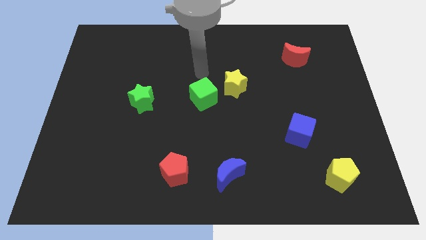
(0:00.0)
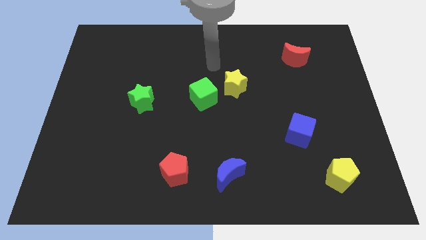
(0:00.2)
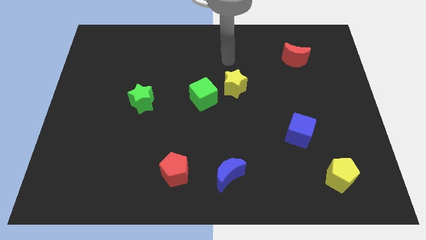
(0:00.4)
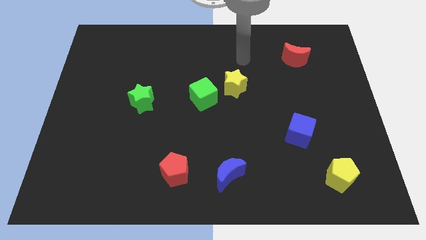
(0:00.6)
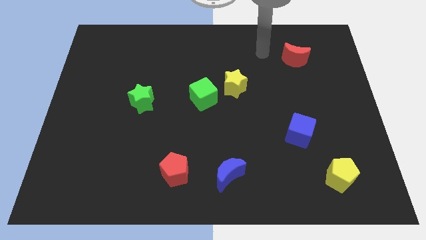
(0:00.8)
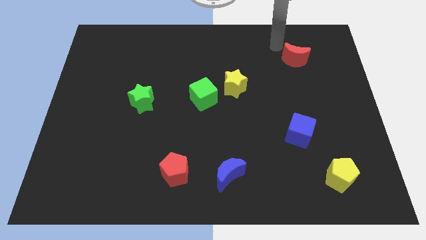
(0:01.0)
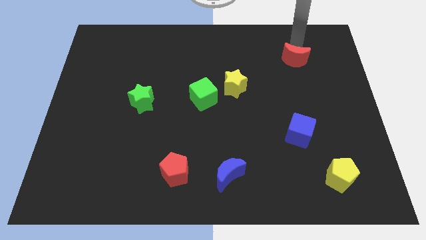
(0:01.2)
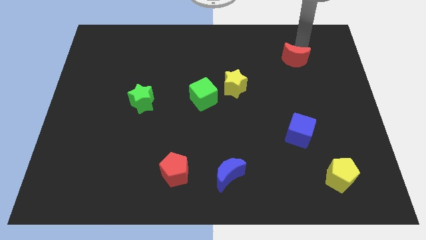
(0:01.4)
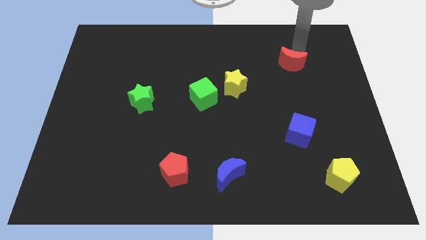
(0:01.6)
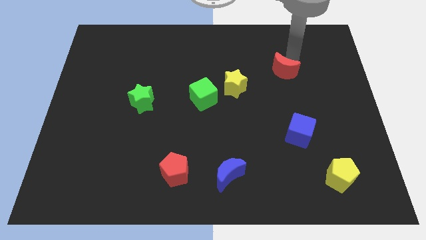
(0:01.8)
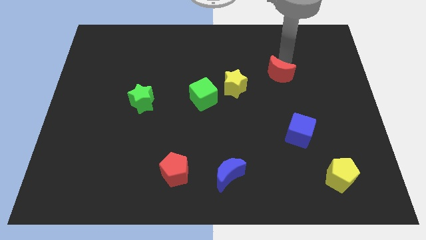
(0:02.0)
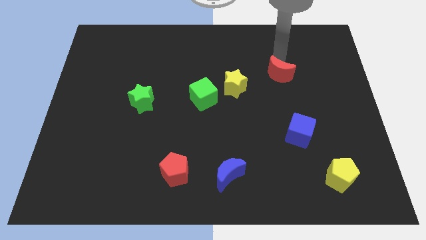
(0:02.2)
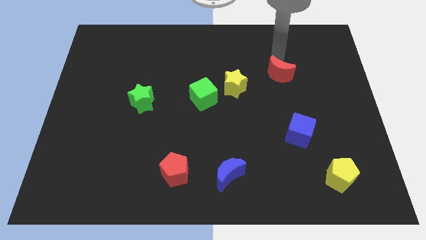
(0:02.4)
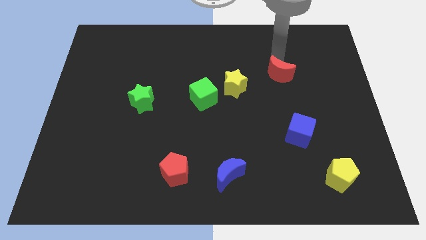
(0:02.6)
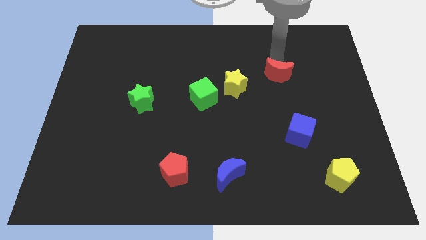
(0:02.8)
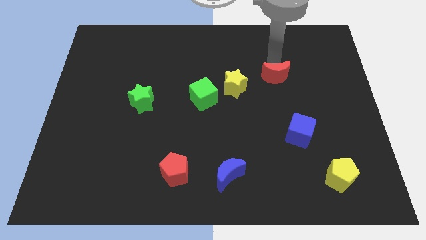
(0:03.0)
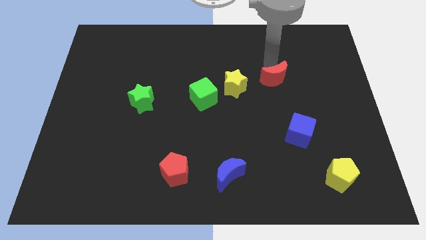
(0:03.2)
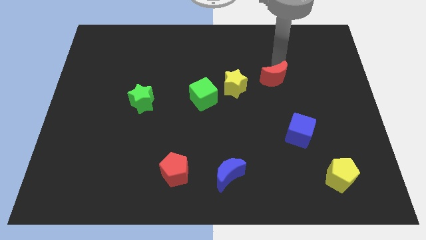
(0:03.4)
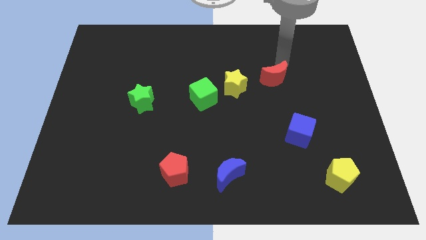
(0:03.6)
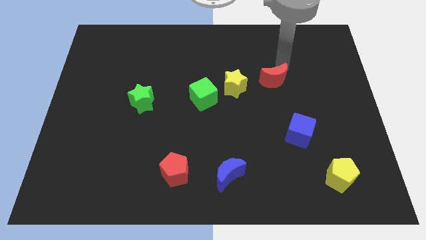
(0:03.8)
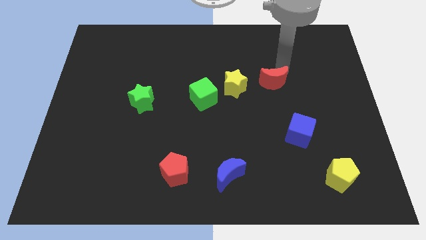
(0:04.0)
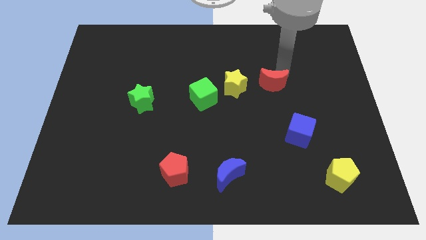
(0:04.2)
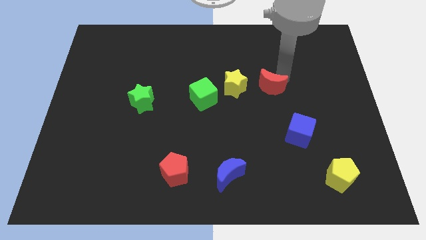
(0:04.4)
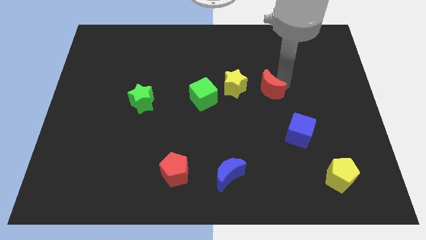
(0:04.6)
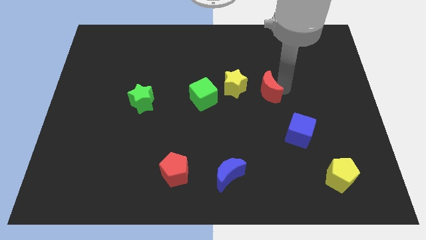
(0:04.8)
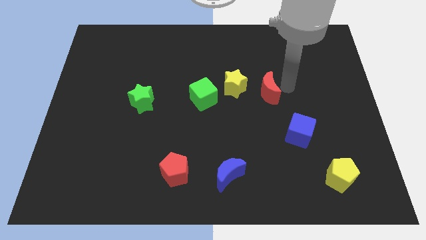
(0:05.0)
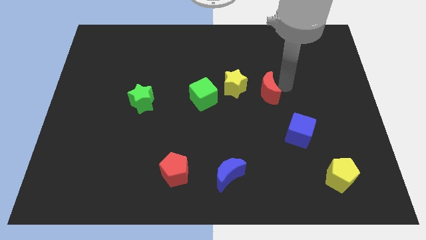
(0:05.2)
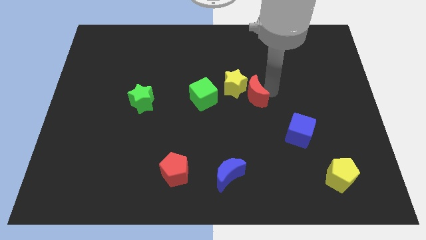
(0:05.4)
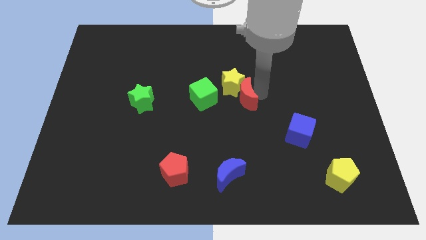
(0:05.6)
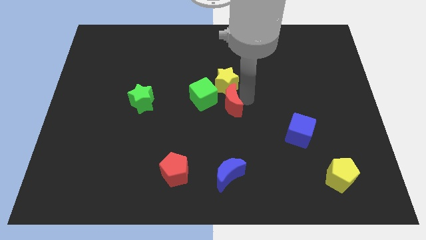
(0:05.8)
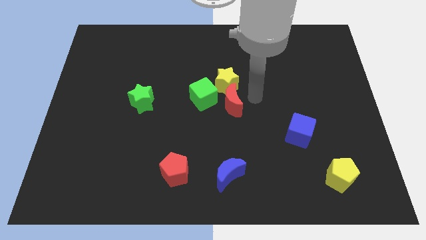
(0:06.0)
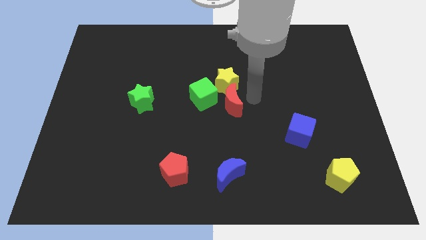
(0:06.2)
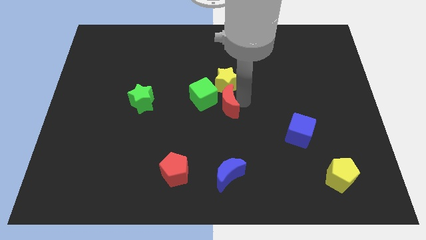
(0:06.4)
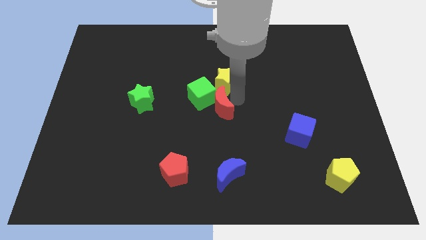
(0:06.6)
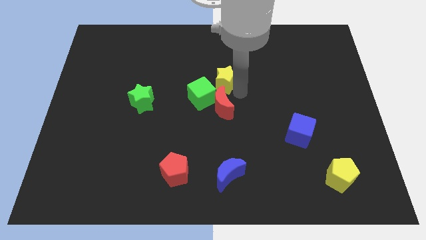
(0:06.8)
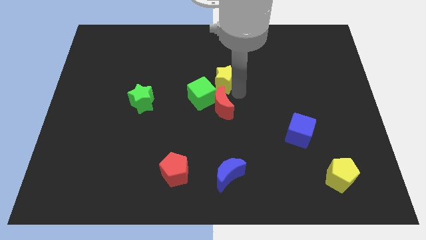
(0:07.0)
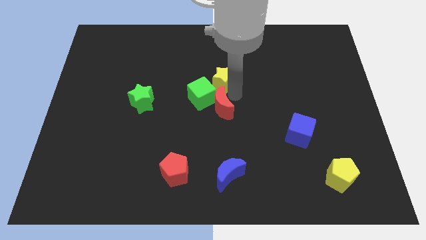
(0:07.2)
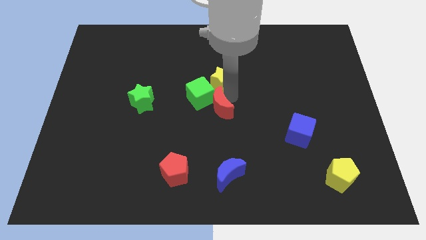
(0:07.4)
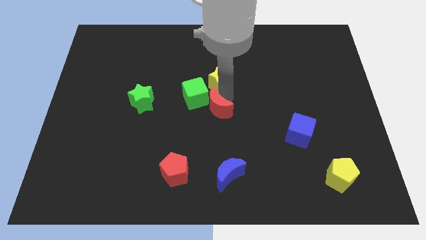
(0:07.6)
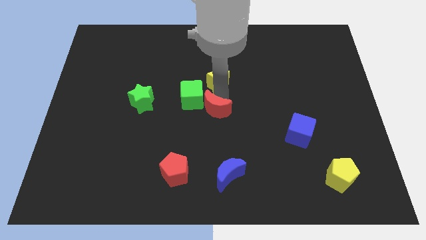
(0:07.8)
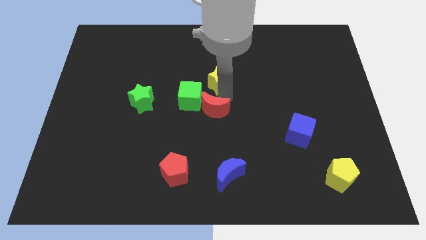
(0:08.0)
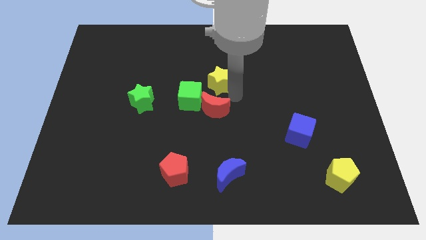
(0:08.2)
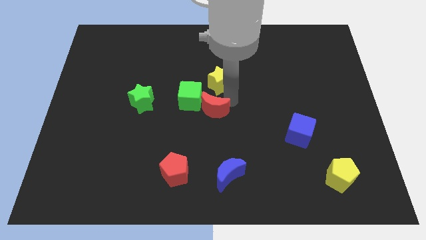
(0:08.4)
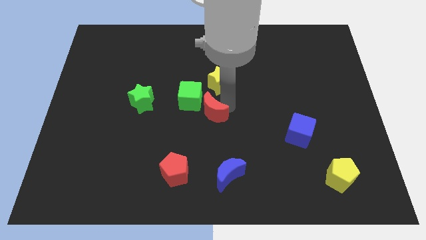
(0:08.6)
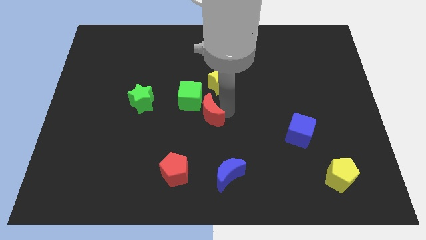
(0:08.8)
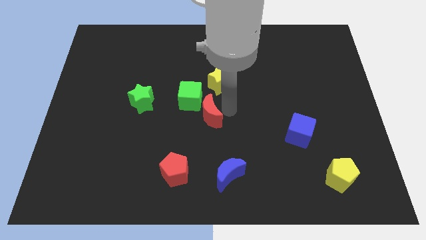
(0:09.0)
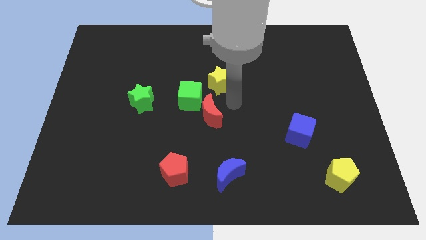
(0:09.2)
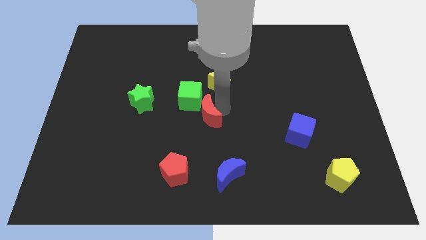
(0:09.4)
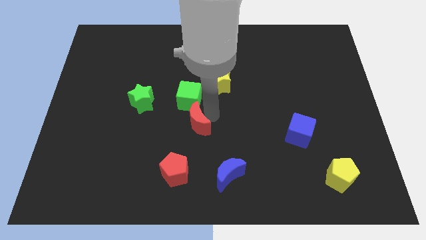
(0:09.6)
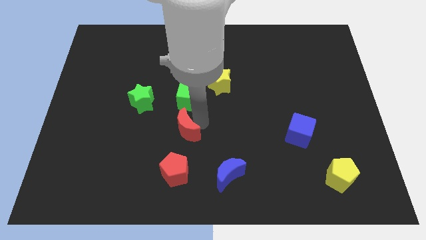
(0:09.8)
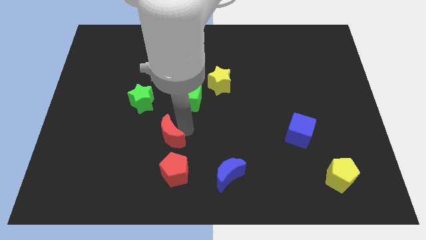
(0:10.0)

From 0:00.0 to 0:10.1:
put the red moon diagonally up and to the left of the red pentagon

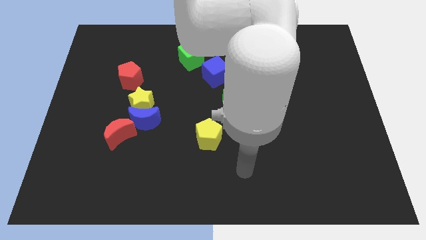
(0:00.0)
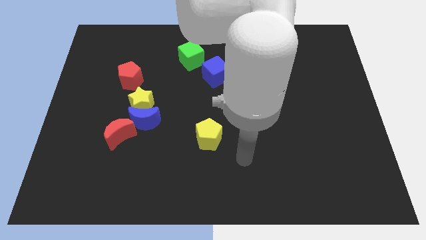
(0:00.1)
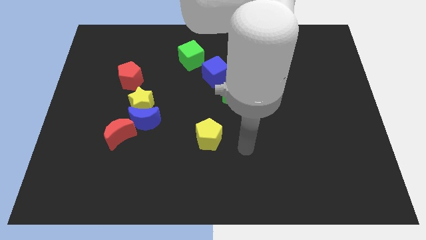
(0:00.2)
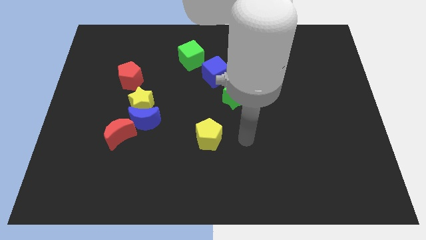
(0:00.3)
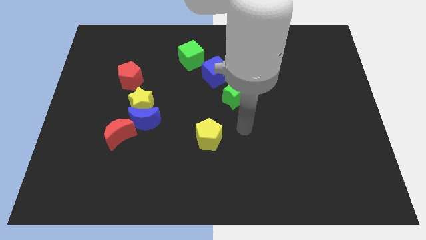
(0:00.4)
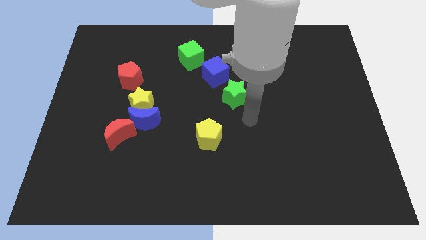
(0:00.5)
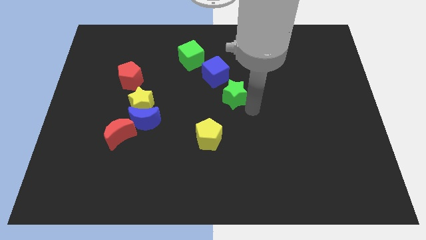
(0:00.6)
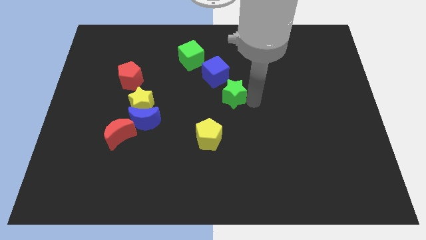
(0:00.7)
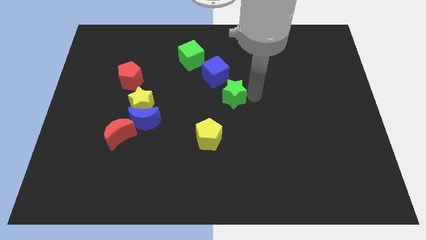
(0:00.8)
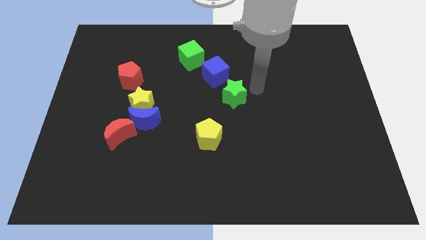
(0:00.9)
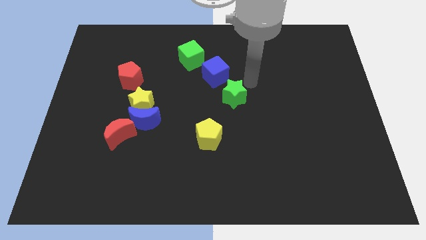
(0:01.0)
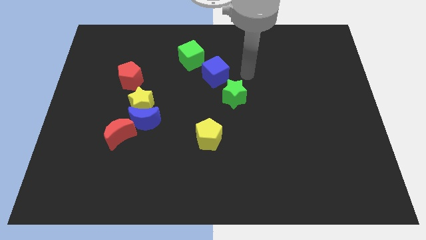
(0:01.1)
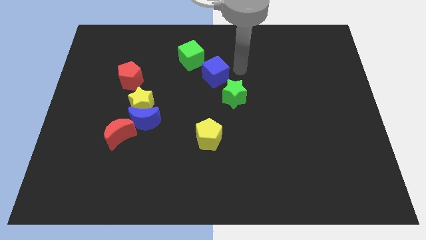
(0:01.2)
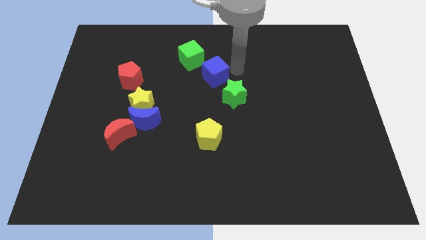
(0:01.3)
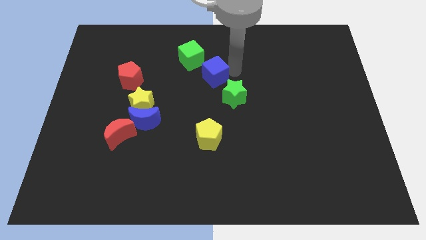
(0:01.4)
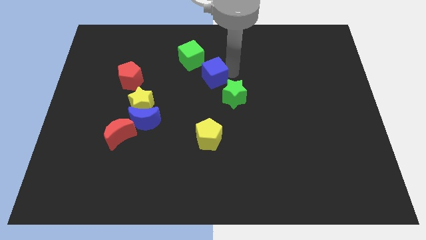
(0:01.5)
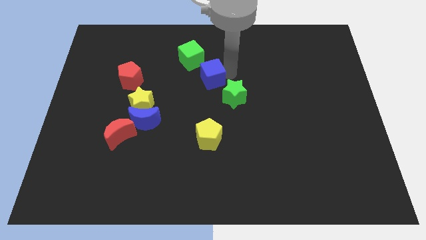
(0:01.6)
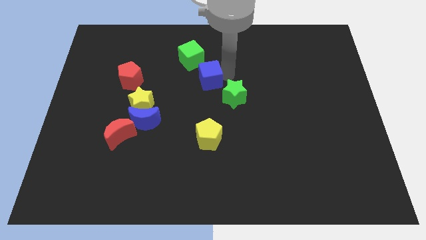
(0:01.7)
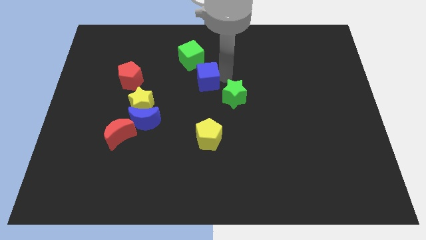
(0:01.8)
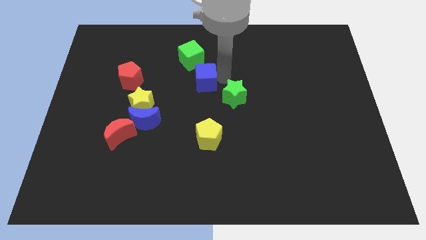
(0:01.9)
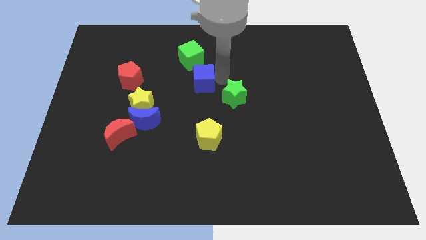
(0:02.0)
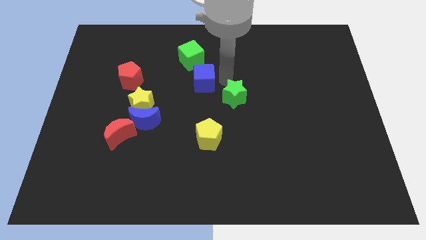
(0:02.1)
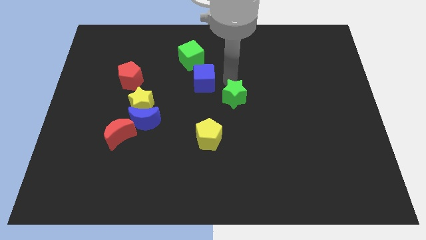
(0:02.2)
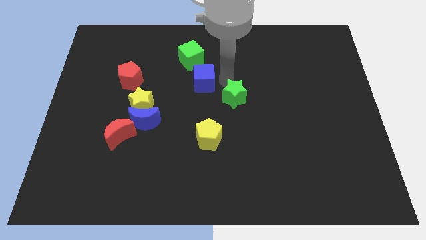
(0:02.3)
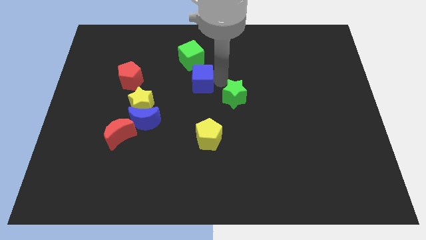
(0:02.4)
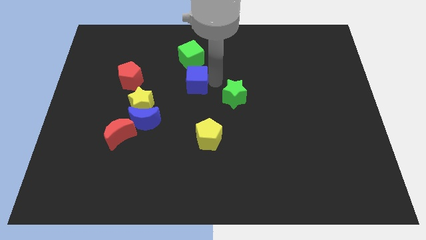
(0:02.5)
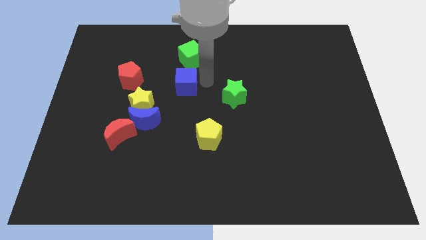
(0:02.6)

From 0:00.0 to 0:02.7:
put the blue cube diagonally up and to the right of the yellow star
